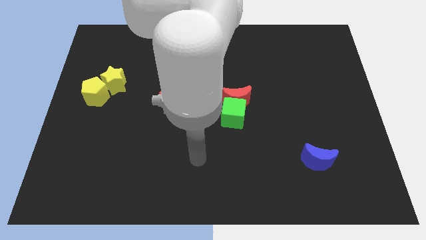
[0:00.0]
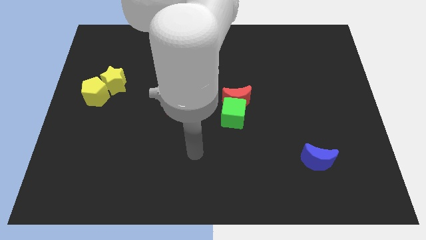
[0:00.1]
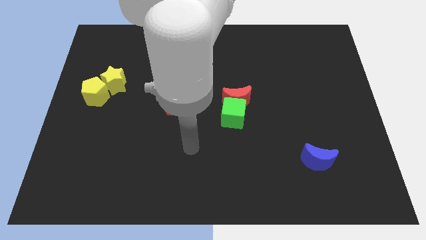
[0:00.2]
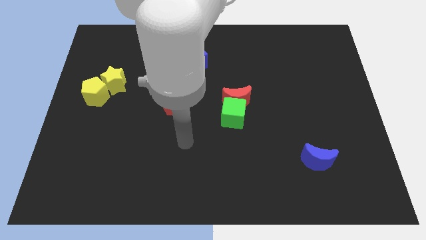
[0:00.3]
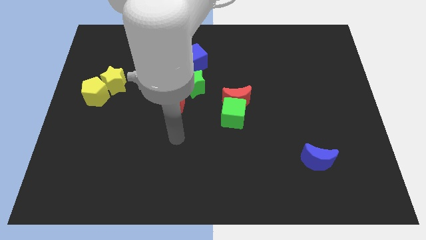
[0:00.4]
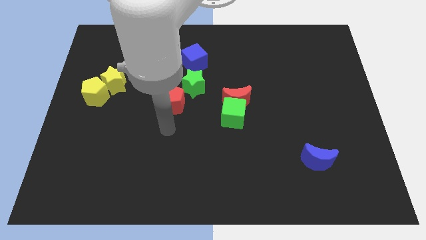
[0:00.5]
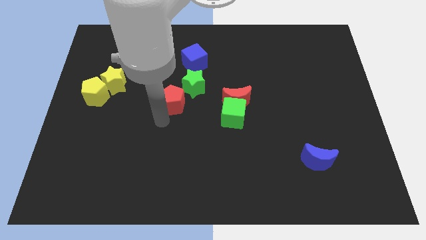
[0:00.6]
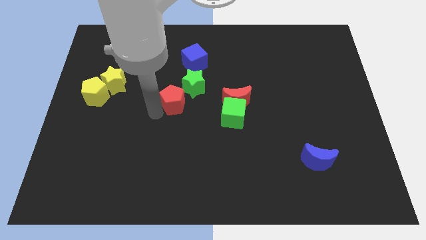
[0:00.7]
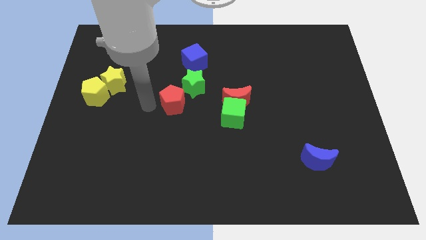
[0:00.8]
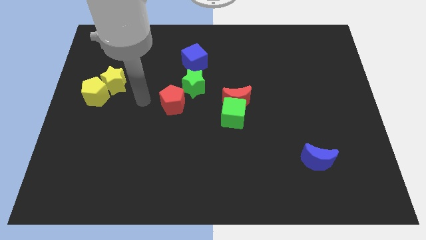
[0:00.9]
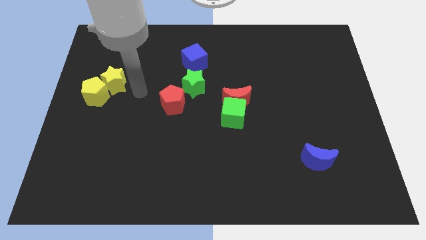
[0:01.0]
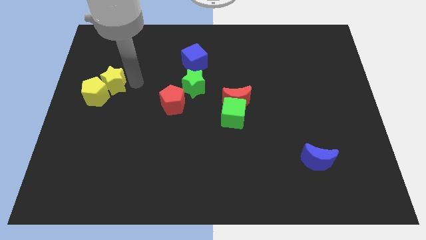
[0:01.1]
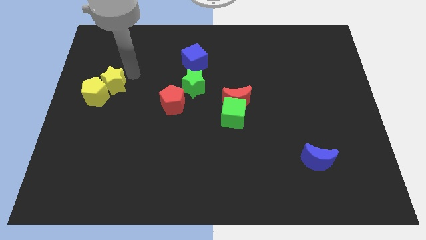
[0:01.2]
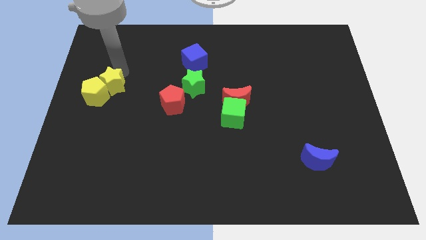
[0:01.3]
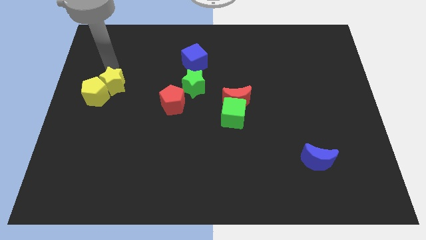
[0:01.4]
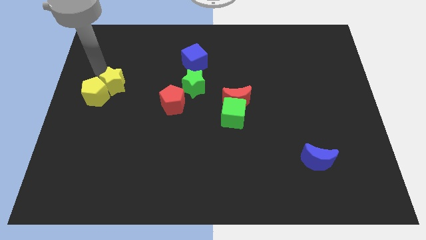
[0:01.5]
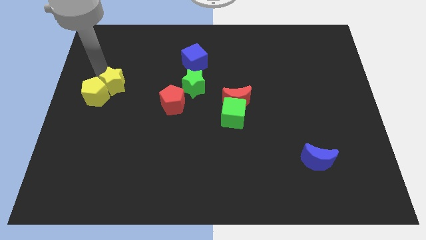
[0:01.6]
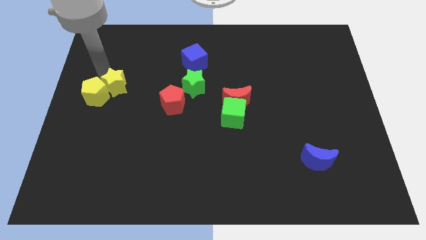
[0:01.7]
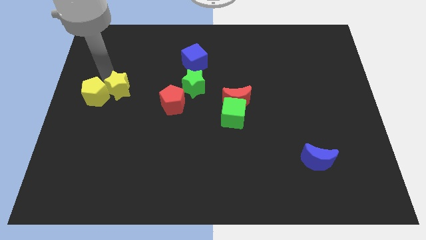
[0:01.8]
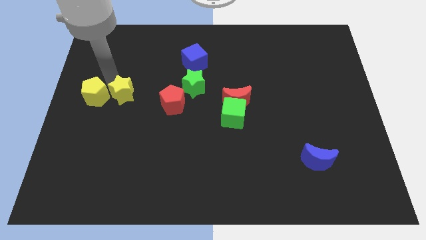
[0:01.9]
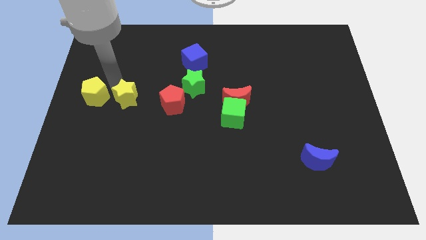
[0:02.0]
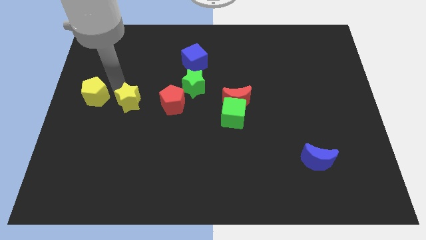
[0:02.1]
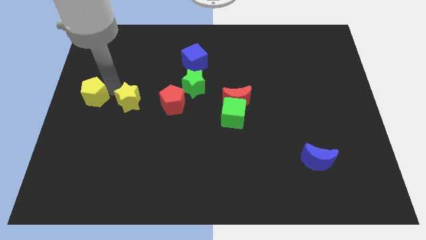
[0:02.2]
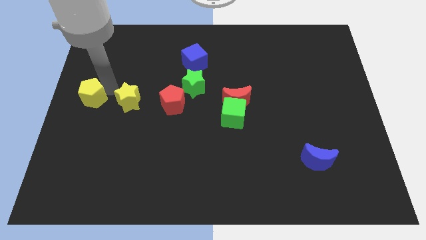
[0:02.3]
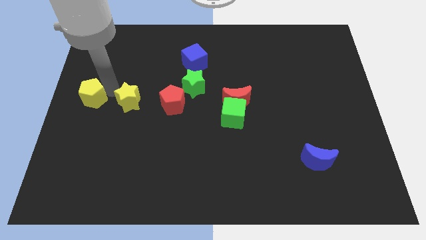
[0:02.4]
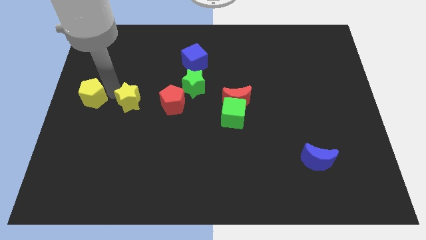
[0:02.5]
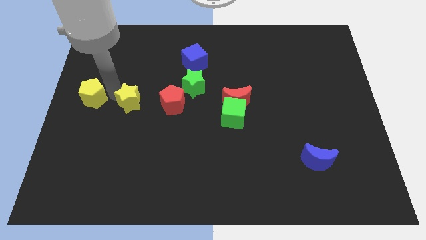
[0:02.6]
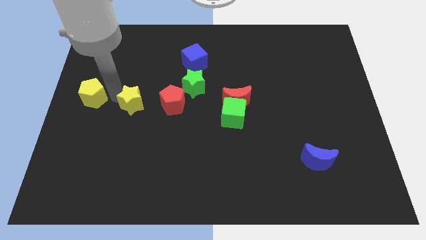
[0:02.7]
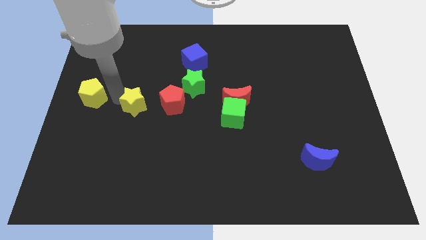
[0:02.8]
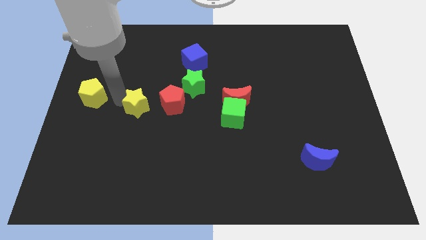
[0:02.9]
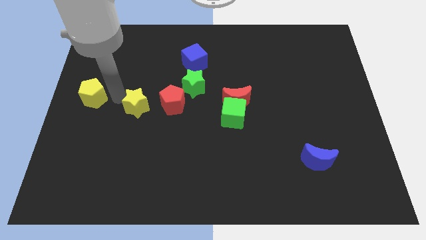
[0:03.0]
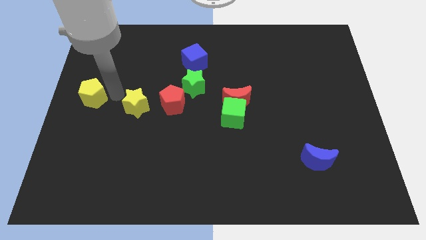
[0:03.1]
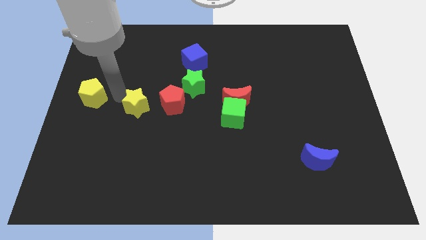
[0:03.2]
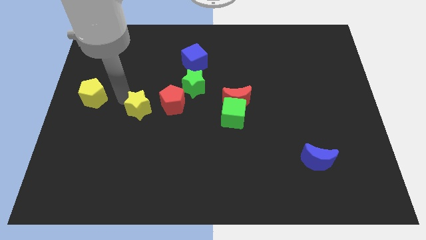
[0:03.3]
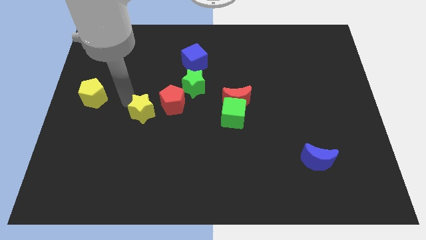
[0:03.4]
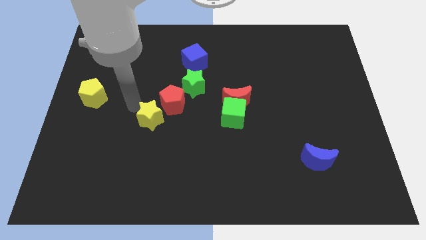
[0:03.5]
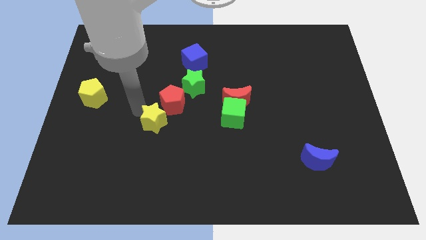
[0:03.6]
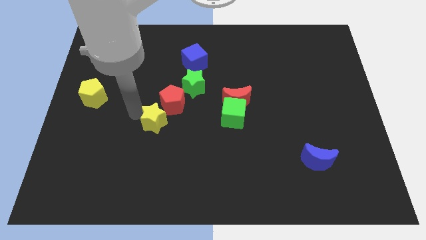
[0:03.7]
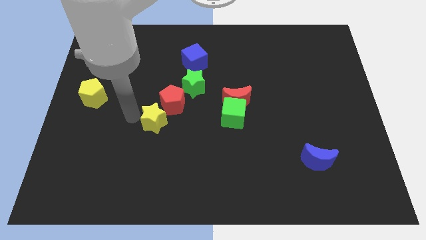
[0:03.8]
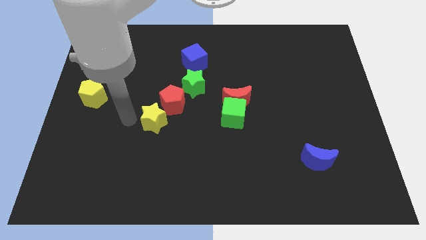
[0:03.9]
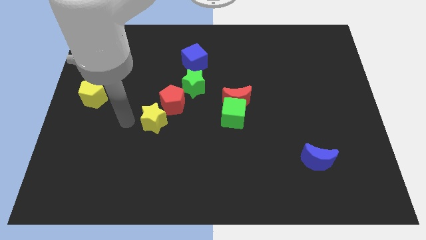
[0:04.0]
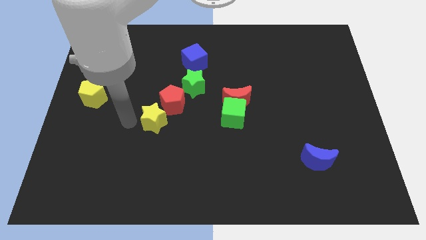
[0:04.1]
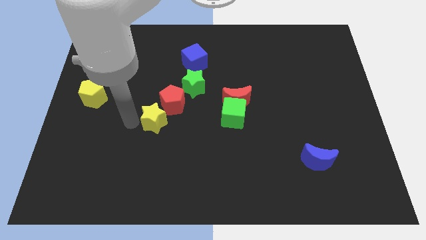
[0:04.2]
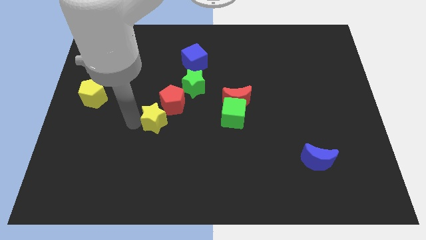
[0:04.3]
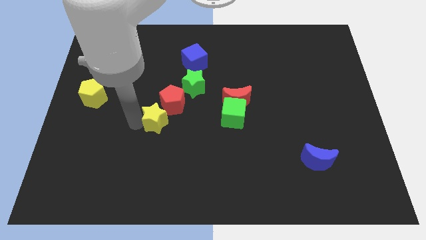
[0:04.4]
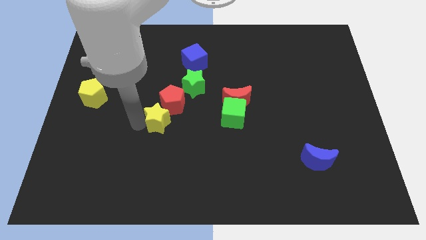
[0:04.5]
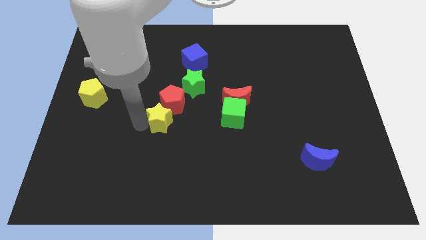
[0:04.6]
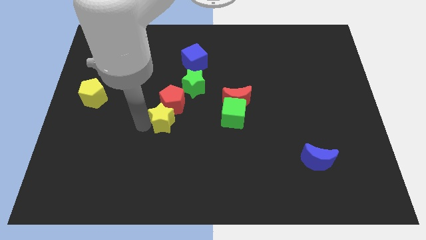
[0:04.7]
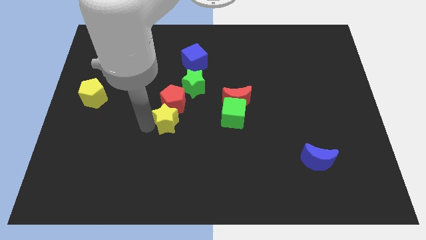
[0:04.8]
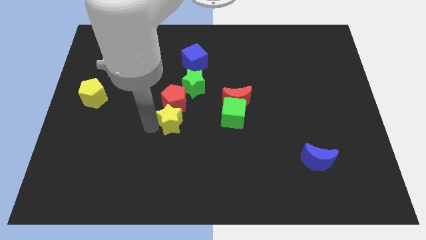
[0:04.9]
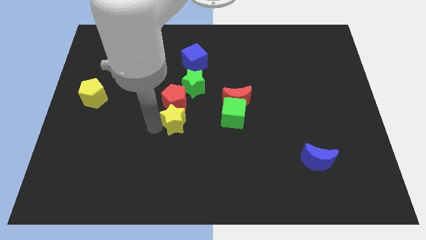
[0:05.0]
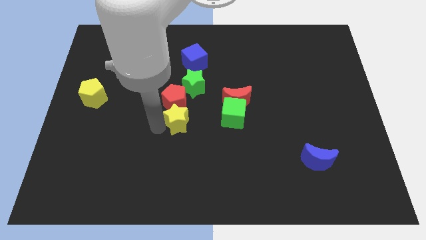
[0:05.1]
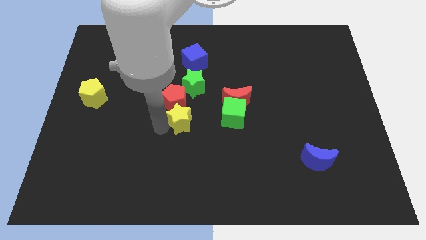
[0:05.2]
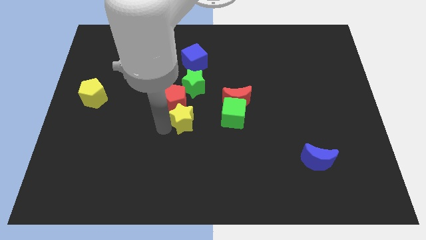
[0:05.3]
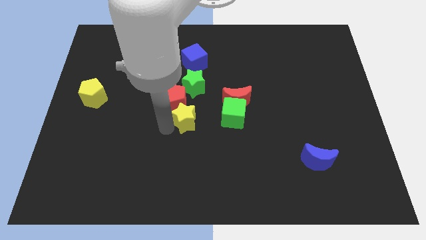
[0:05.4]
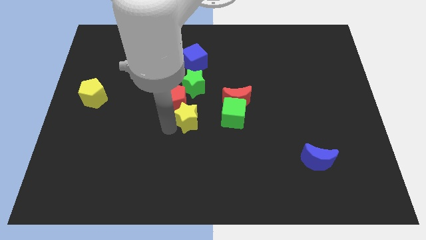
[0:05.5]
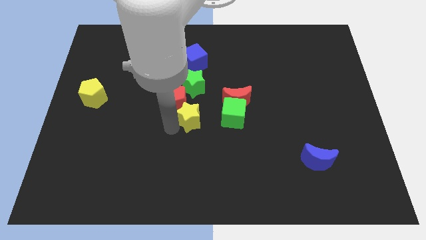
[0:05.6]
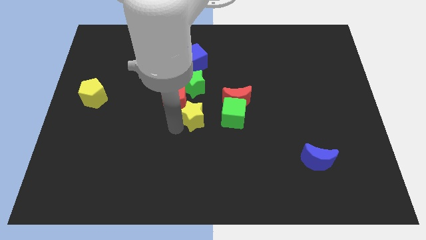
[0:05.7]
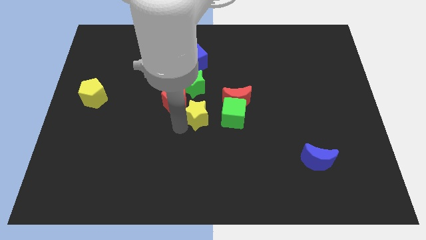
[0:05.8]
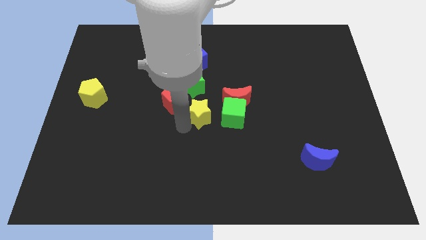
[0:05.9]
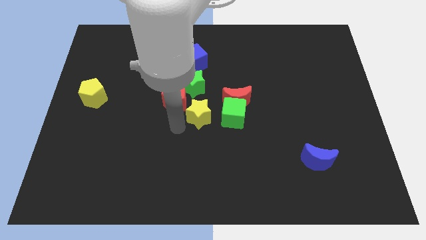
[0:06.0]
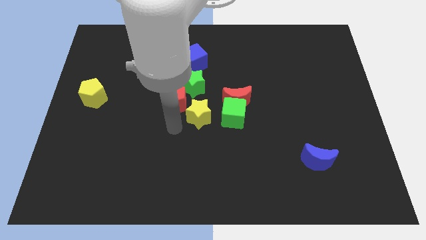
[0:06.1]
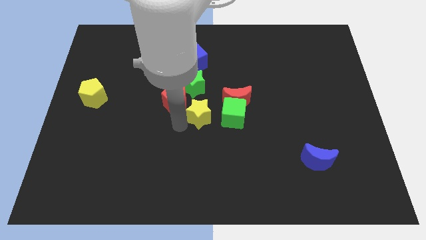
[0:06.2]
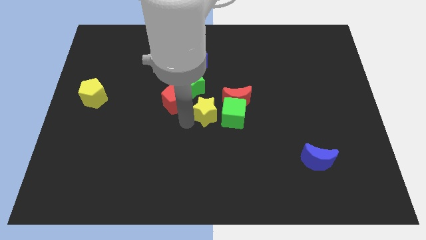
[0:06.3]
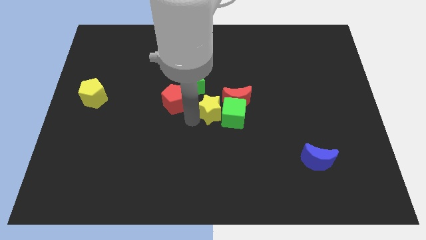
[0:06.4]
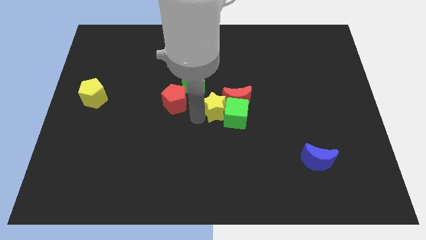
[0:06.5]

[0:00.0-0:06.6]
put the yellow star to the red moon

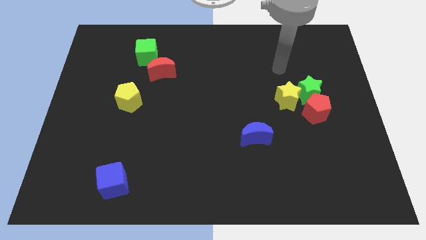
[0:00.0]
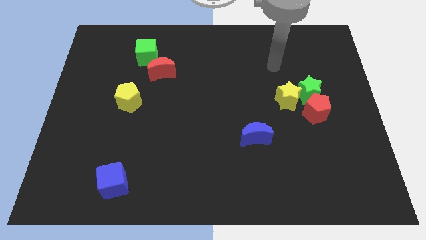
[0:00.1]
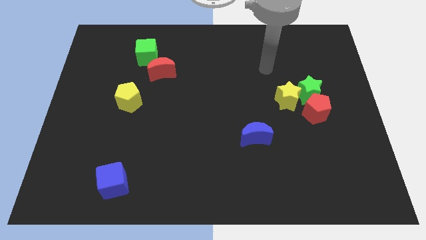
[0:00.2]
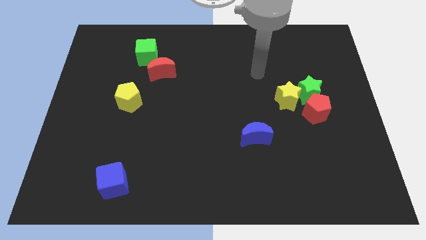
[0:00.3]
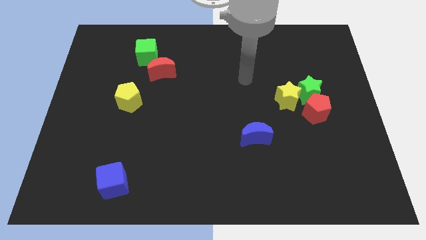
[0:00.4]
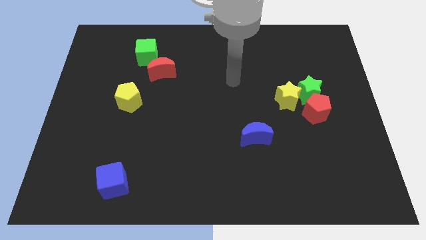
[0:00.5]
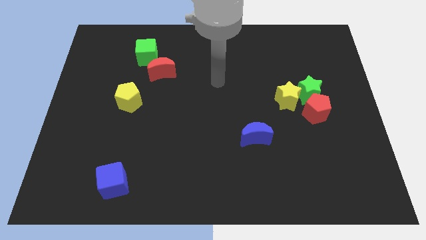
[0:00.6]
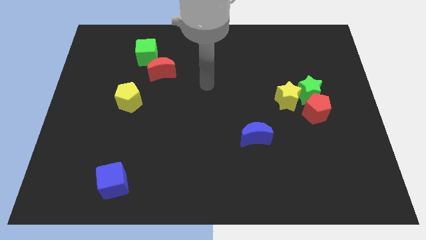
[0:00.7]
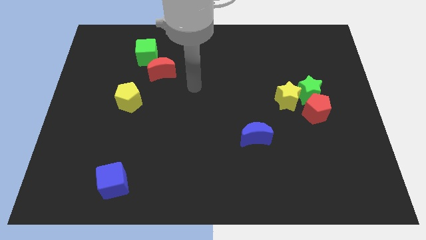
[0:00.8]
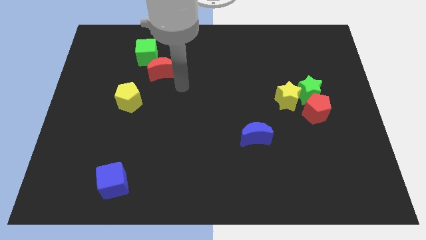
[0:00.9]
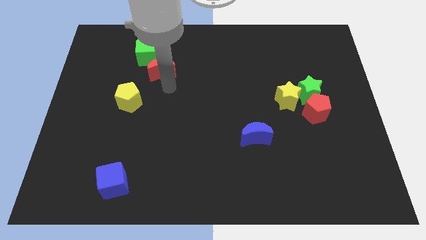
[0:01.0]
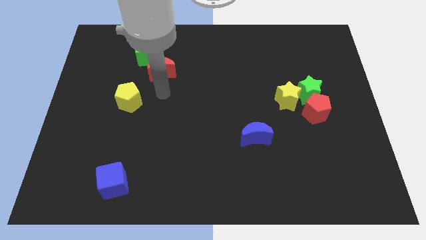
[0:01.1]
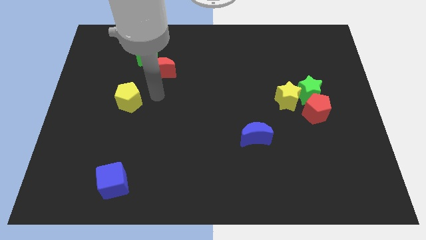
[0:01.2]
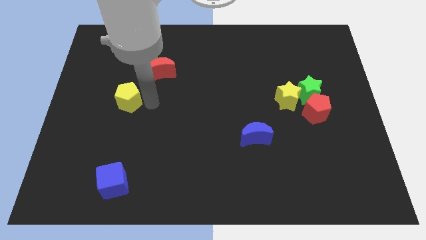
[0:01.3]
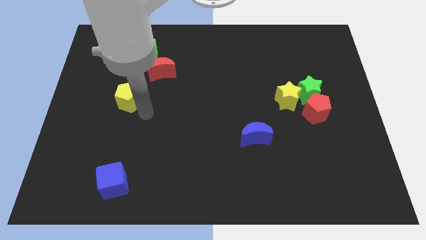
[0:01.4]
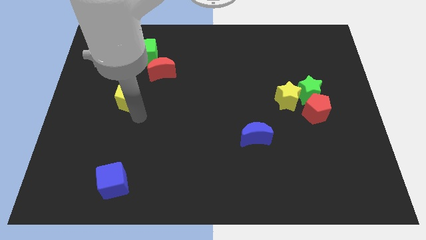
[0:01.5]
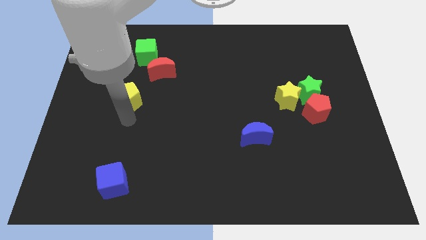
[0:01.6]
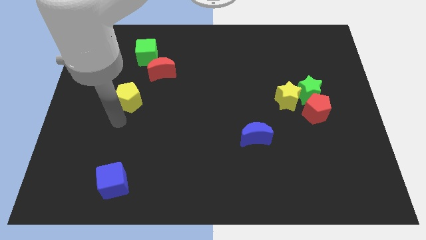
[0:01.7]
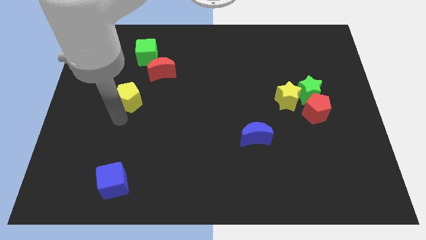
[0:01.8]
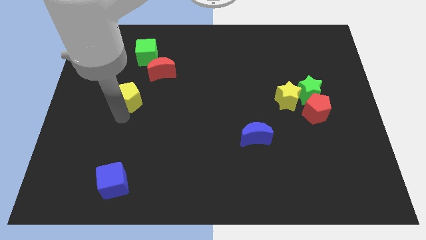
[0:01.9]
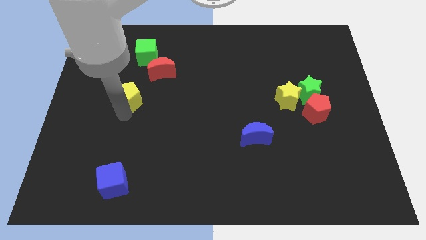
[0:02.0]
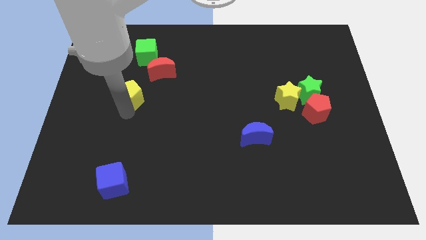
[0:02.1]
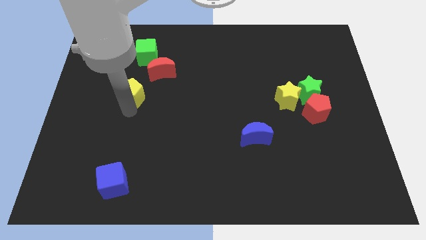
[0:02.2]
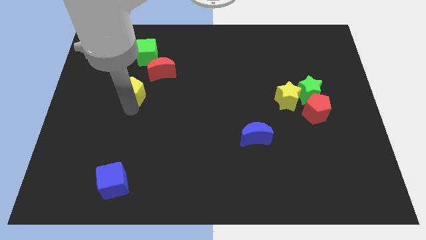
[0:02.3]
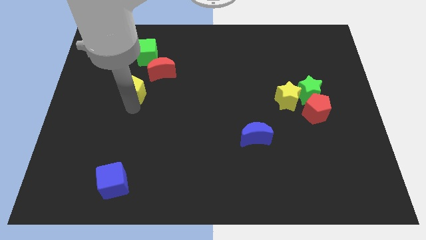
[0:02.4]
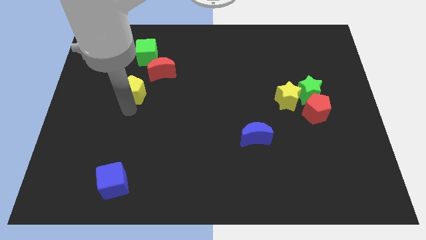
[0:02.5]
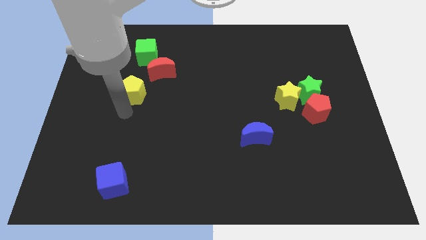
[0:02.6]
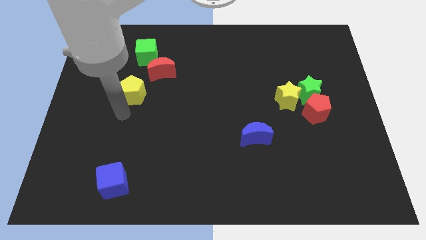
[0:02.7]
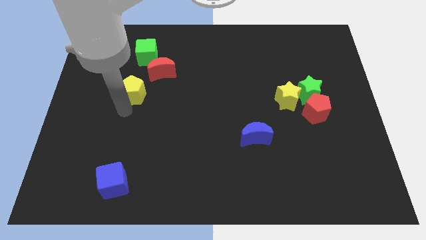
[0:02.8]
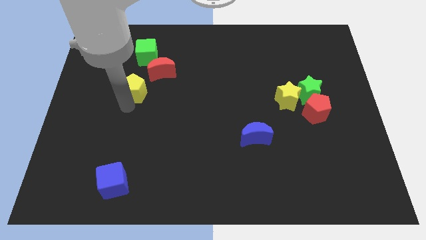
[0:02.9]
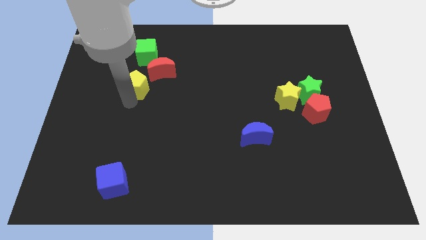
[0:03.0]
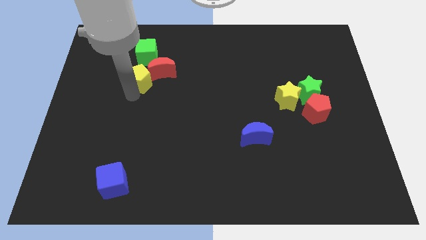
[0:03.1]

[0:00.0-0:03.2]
slide the yellow pentagon to the red moon
